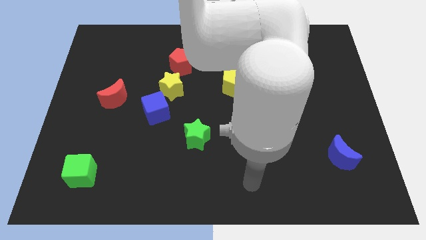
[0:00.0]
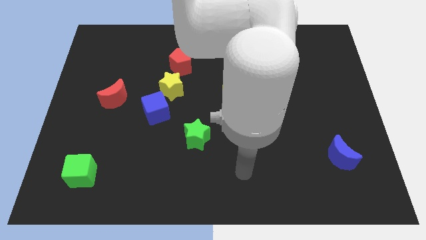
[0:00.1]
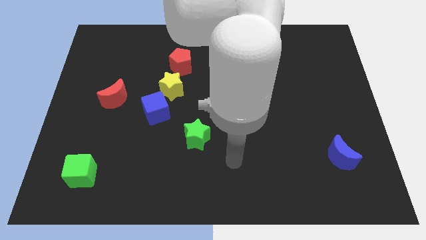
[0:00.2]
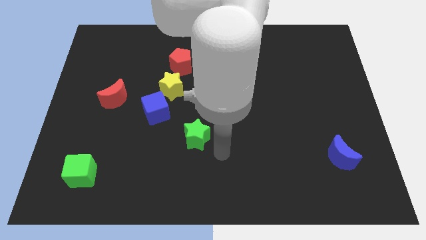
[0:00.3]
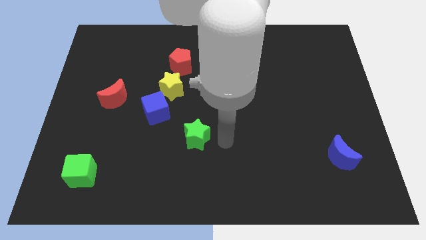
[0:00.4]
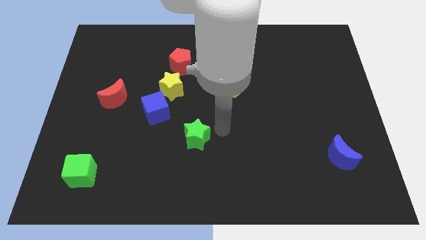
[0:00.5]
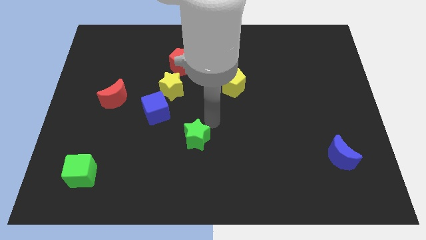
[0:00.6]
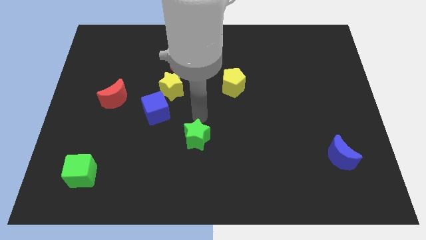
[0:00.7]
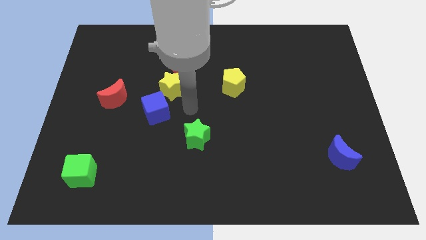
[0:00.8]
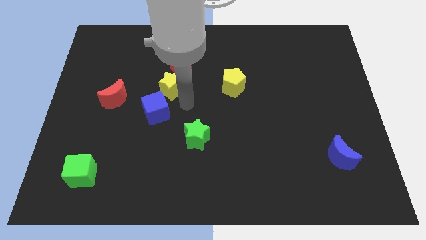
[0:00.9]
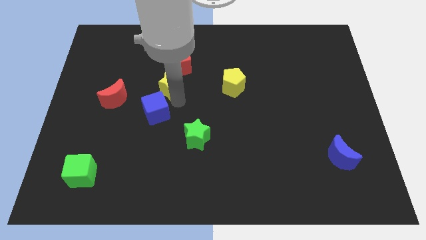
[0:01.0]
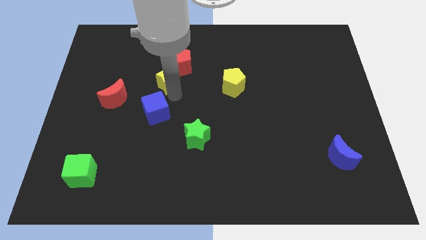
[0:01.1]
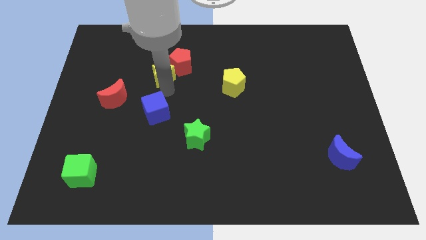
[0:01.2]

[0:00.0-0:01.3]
separate the blue cube from the yellow star

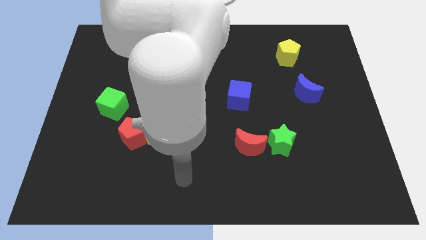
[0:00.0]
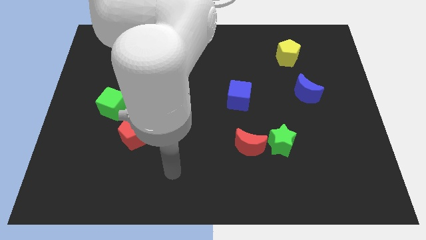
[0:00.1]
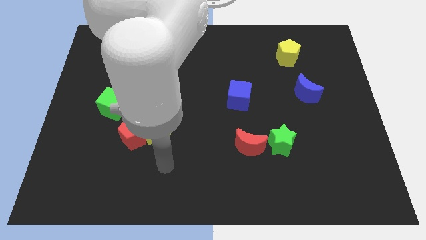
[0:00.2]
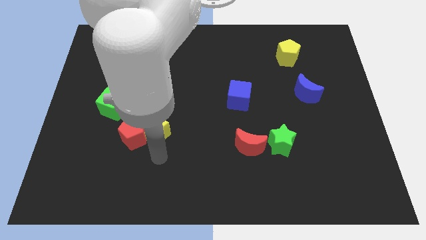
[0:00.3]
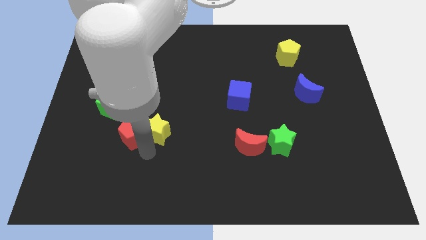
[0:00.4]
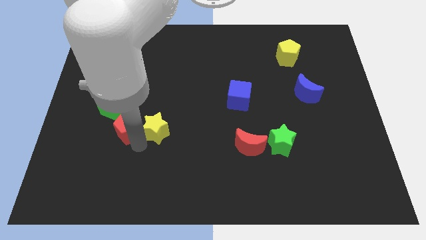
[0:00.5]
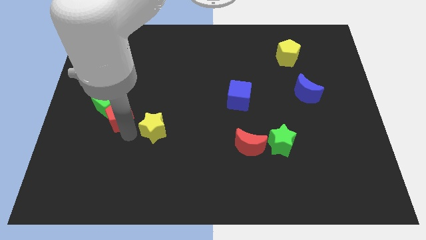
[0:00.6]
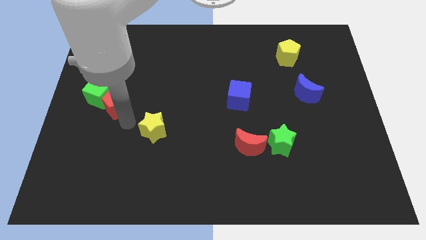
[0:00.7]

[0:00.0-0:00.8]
separate the yellow star from the red pentagon

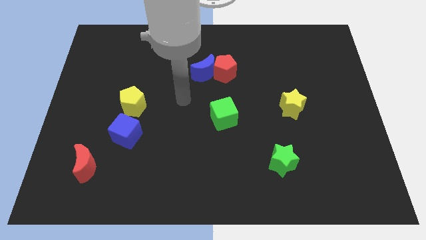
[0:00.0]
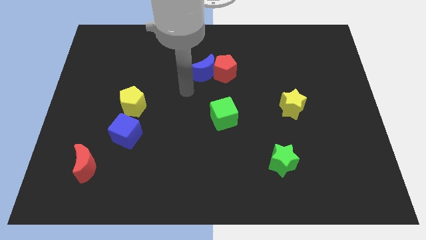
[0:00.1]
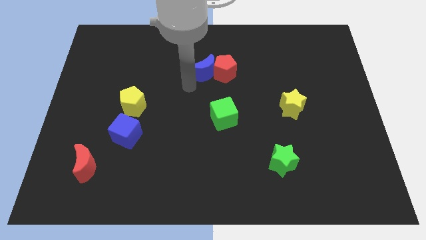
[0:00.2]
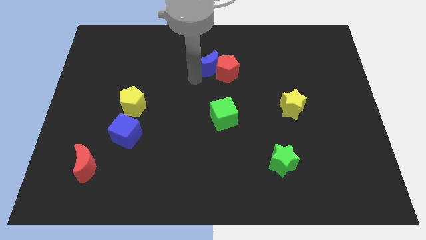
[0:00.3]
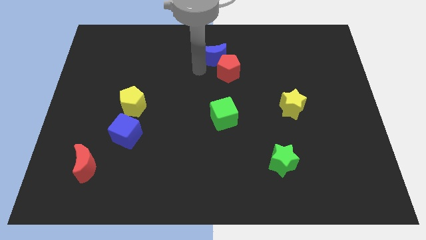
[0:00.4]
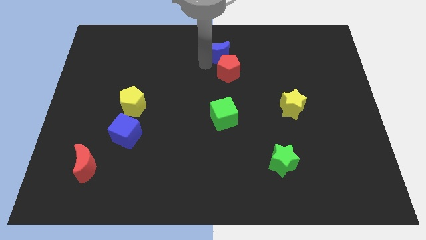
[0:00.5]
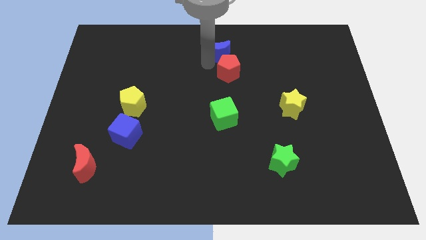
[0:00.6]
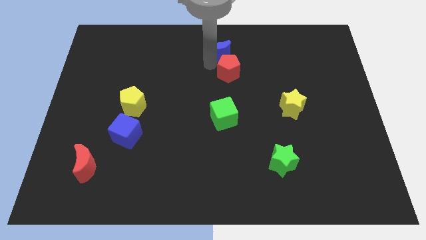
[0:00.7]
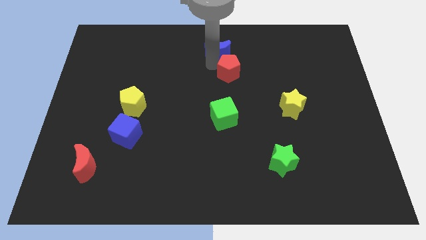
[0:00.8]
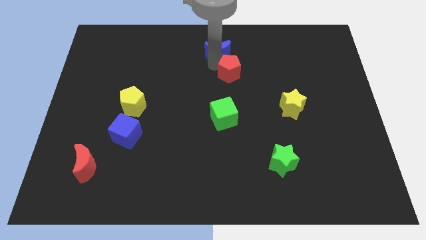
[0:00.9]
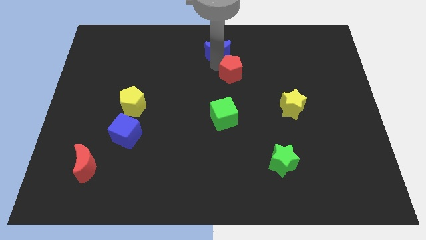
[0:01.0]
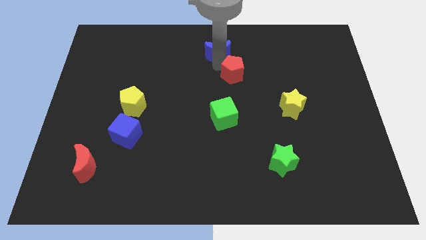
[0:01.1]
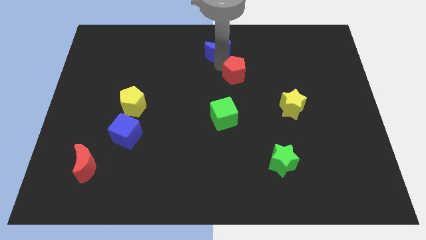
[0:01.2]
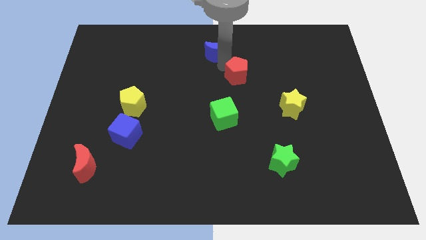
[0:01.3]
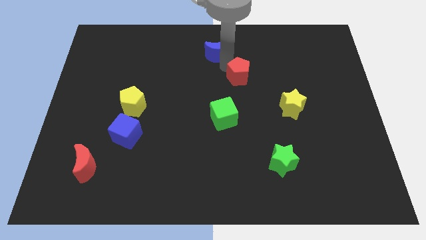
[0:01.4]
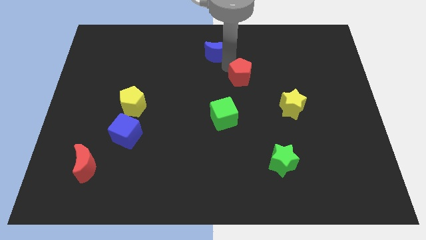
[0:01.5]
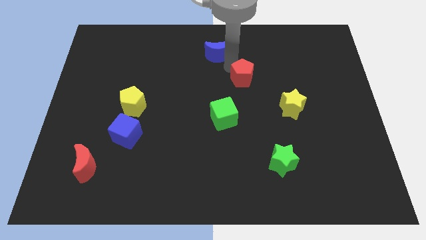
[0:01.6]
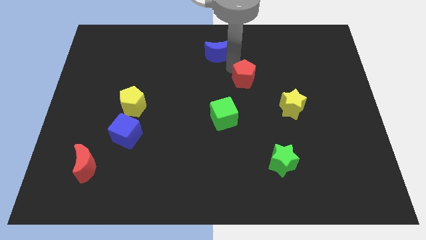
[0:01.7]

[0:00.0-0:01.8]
move the red pentagon away from the blue moon

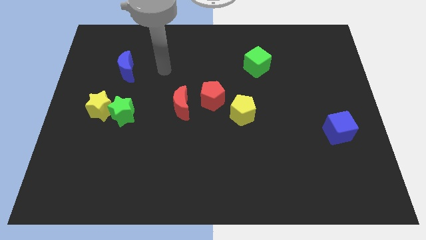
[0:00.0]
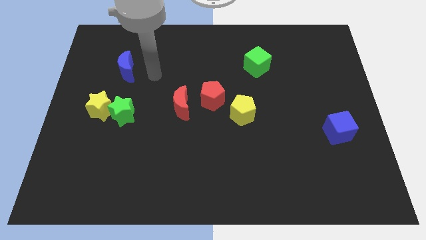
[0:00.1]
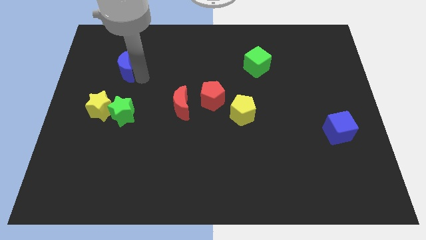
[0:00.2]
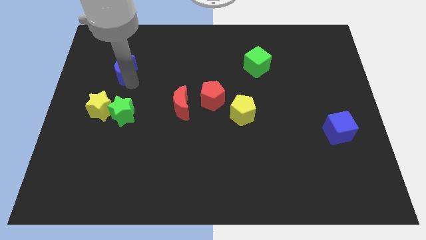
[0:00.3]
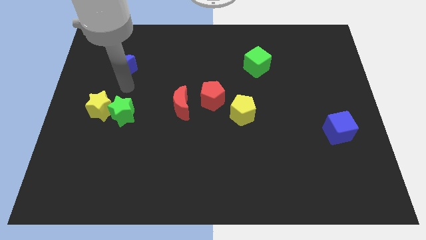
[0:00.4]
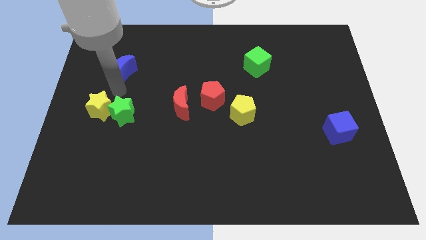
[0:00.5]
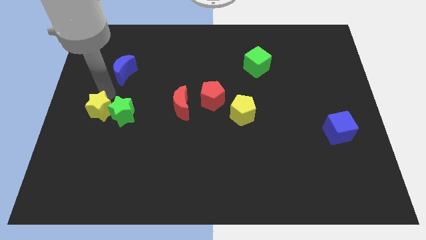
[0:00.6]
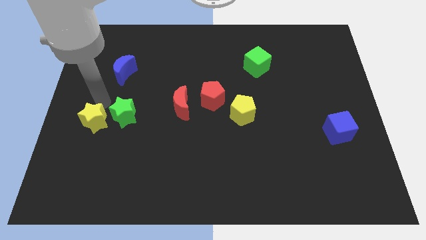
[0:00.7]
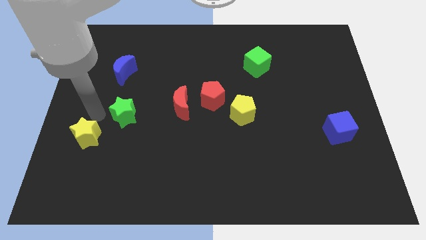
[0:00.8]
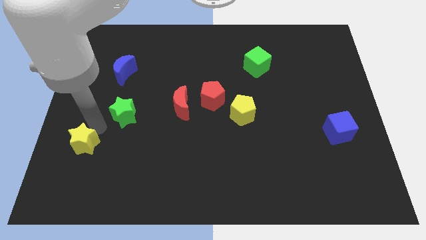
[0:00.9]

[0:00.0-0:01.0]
pull the green star apart from the yellow star

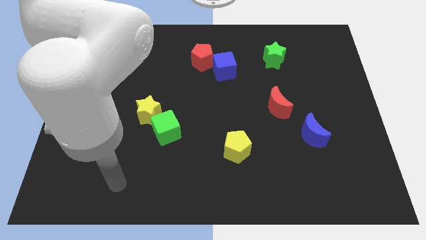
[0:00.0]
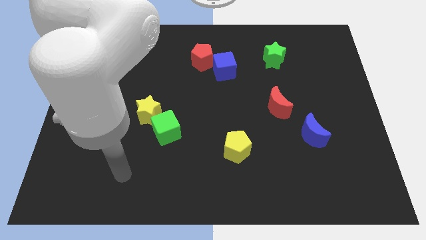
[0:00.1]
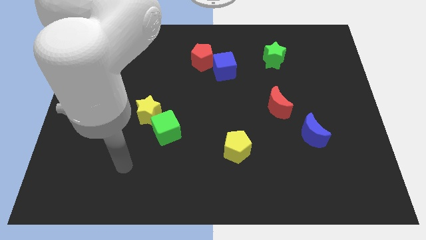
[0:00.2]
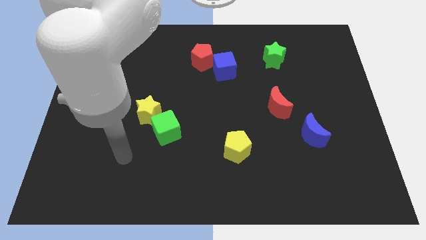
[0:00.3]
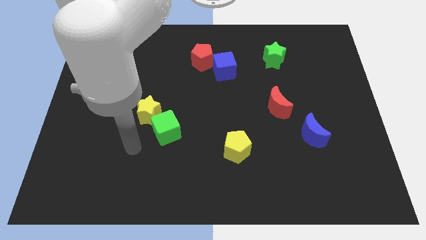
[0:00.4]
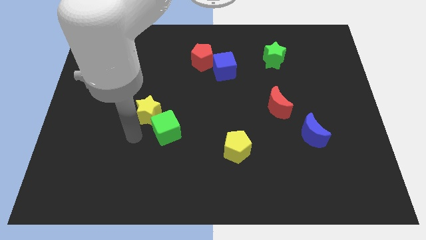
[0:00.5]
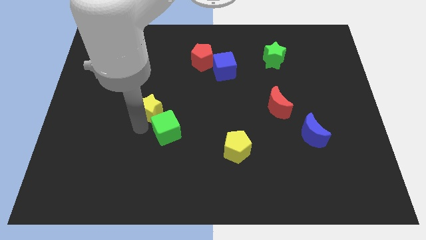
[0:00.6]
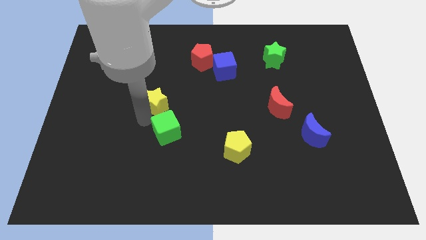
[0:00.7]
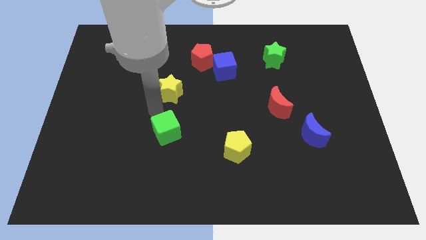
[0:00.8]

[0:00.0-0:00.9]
separate the green cube from the yellow star

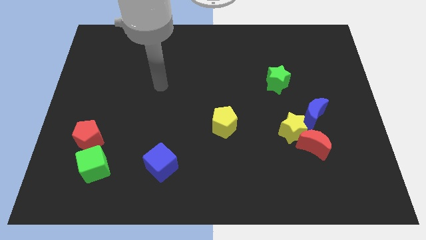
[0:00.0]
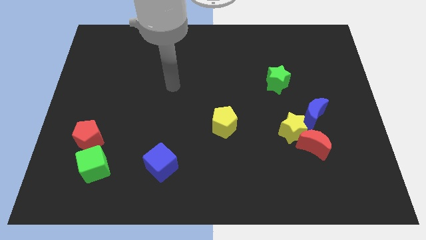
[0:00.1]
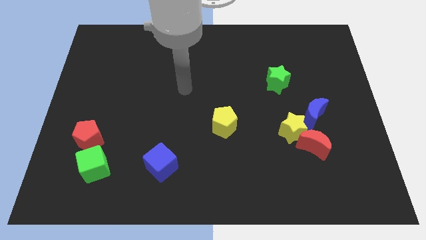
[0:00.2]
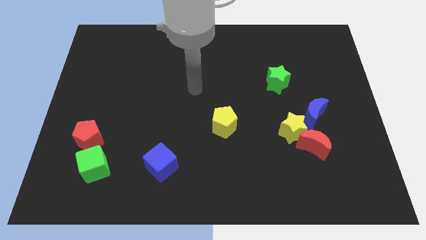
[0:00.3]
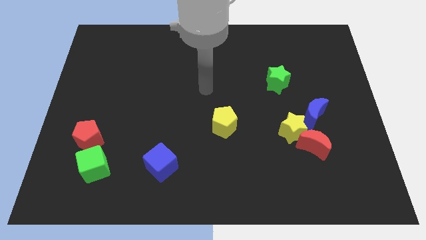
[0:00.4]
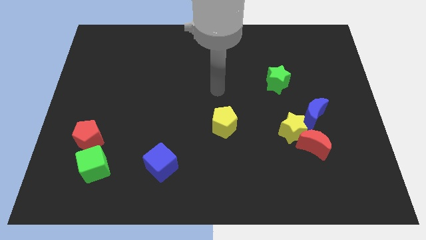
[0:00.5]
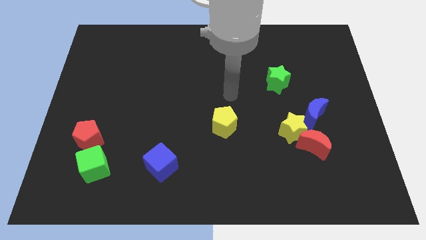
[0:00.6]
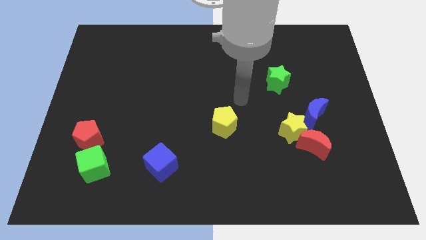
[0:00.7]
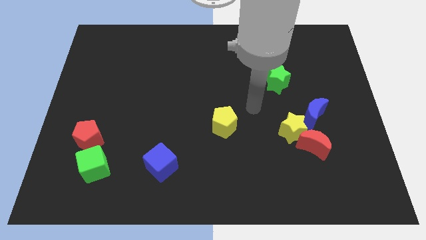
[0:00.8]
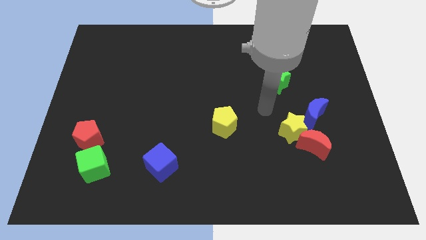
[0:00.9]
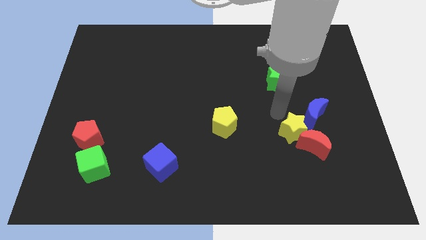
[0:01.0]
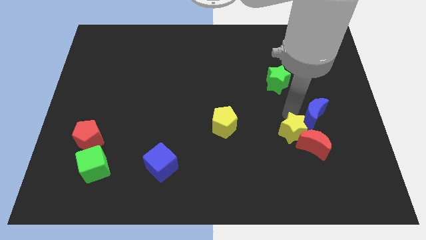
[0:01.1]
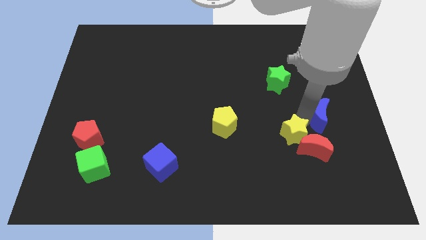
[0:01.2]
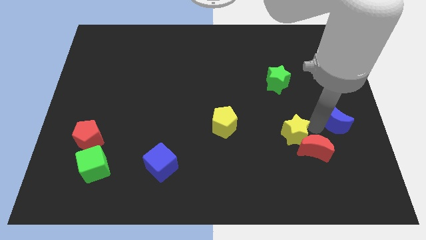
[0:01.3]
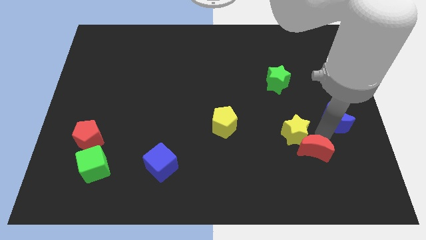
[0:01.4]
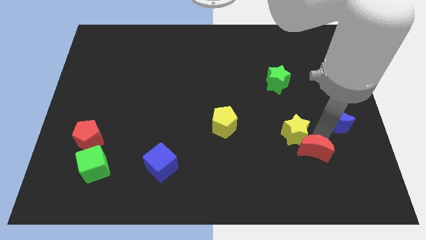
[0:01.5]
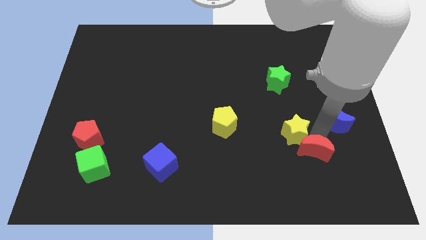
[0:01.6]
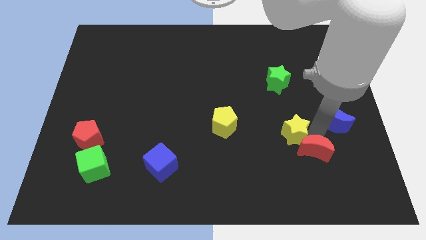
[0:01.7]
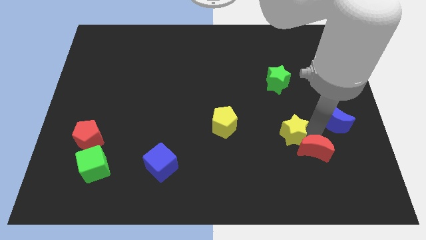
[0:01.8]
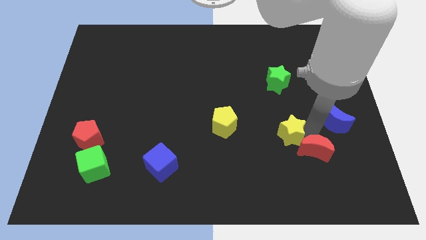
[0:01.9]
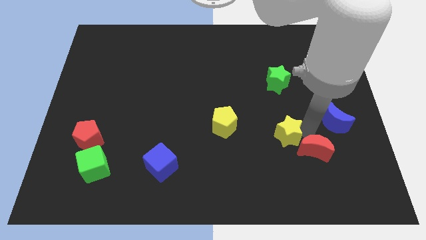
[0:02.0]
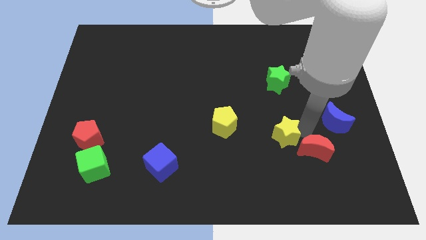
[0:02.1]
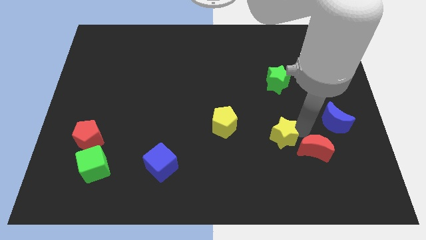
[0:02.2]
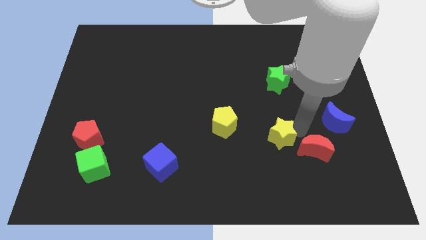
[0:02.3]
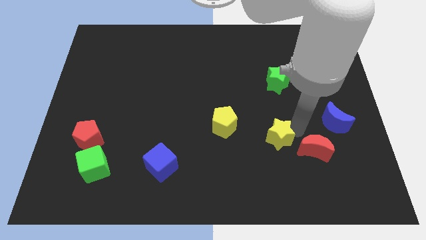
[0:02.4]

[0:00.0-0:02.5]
pull the yellow star apart from the red moon and blue moon

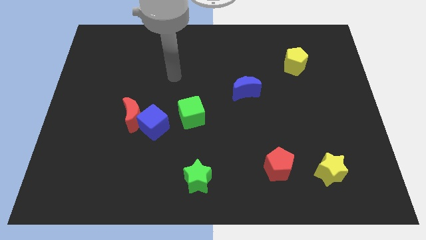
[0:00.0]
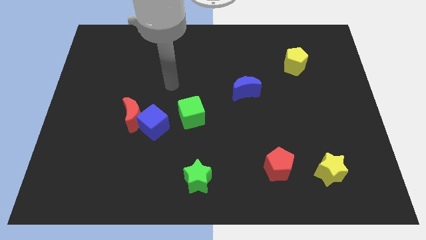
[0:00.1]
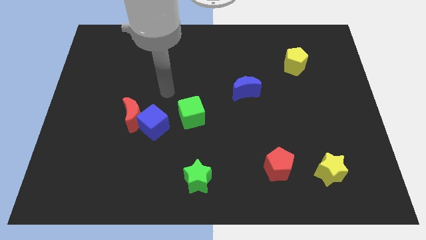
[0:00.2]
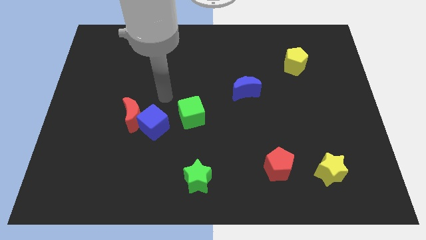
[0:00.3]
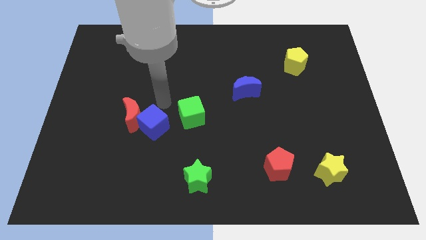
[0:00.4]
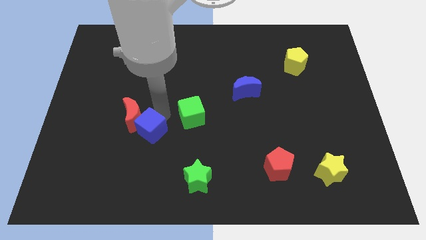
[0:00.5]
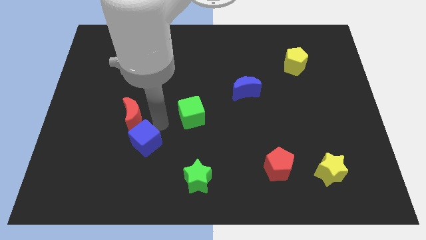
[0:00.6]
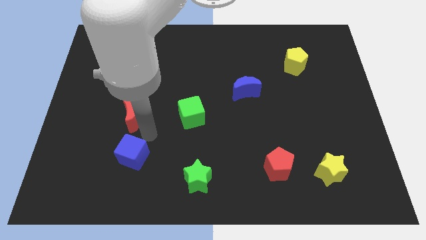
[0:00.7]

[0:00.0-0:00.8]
separate the red moon from the blue cube

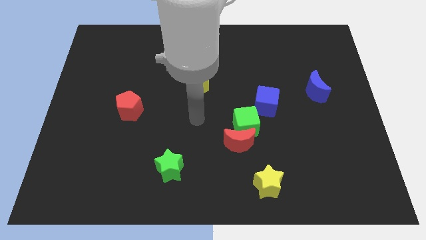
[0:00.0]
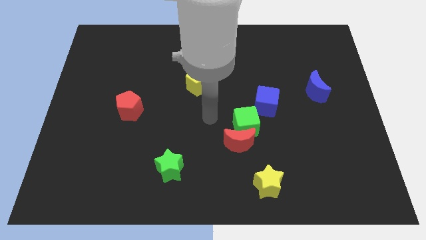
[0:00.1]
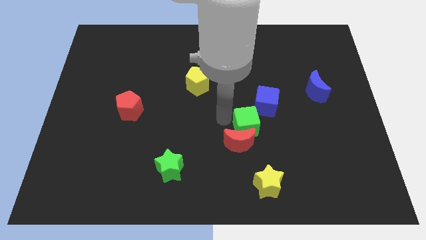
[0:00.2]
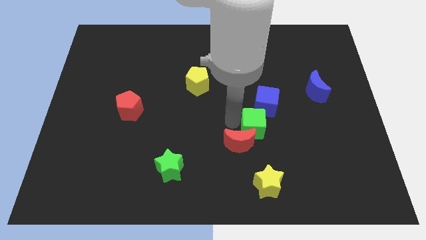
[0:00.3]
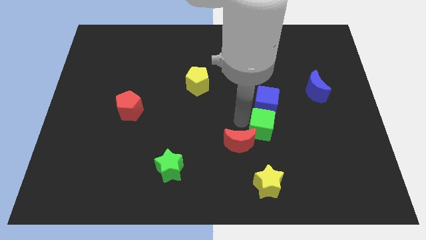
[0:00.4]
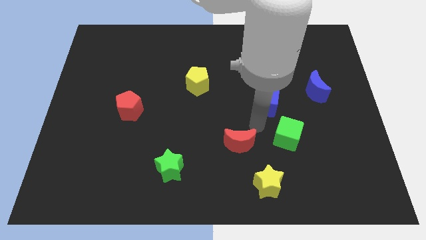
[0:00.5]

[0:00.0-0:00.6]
move the red moon away from the green cube
